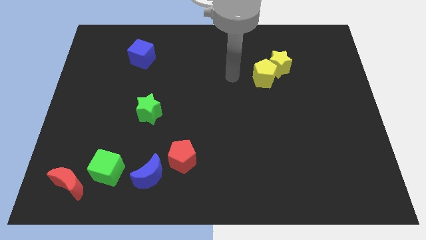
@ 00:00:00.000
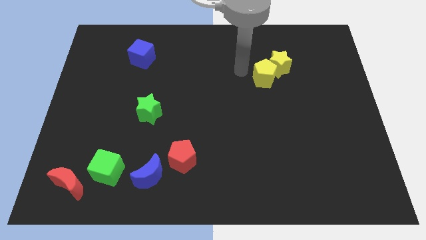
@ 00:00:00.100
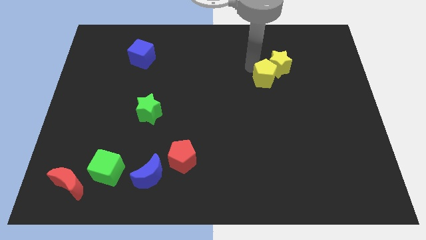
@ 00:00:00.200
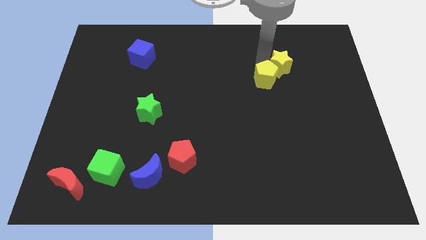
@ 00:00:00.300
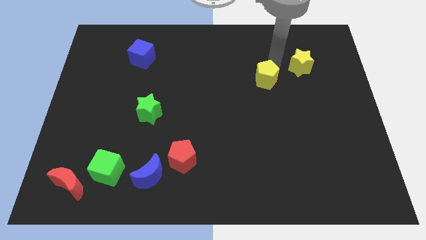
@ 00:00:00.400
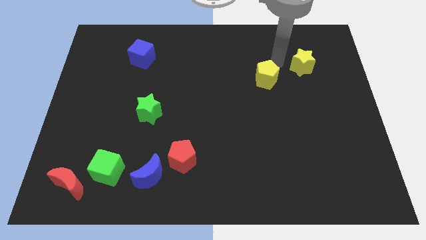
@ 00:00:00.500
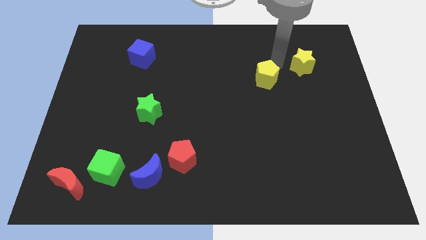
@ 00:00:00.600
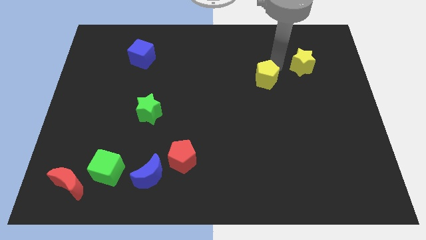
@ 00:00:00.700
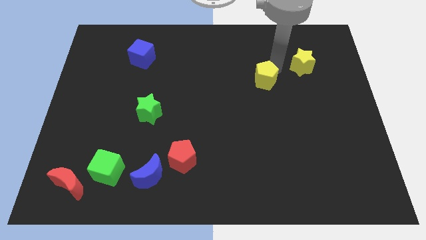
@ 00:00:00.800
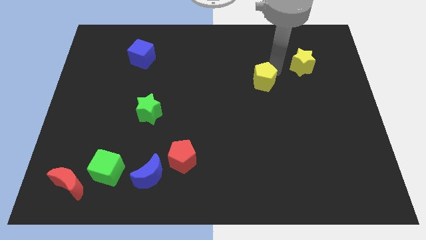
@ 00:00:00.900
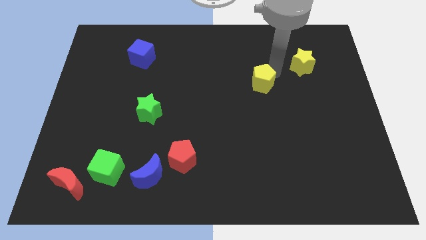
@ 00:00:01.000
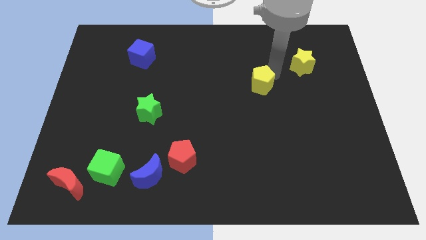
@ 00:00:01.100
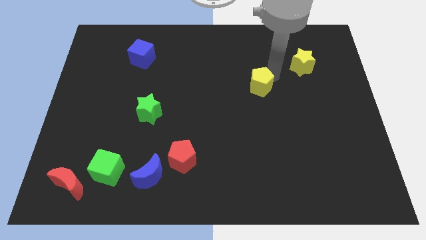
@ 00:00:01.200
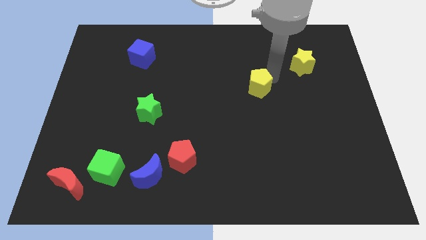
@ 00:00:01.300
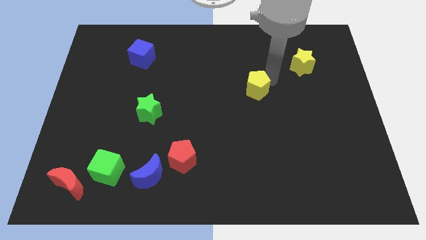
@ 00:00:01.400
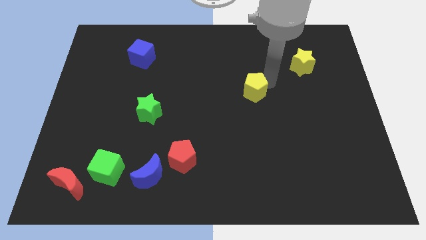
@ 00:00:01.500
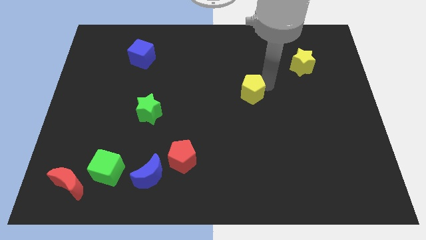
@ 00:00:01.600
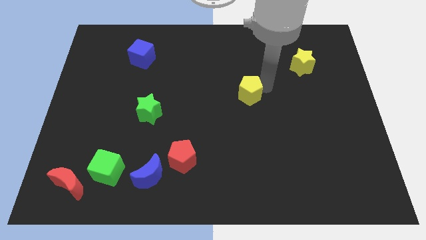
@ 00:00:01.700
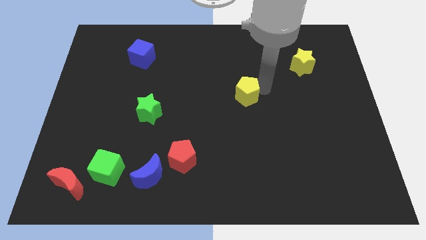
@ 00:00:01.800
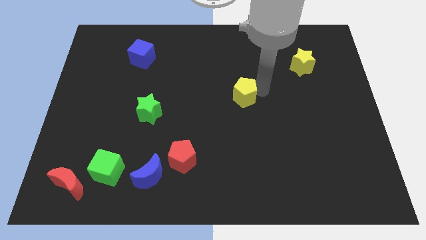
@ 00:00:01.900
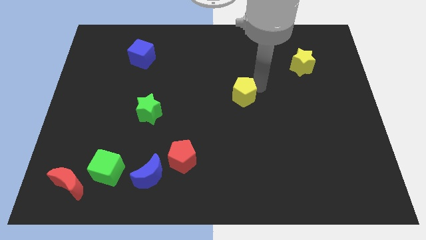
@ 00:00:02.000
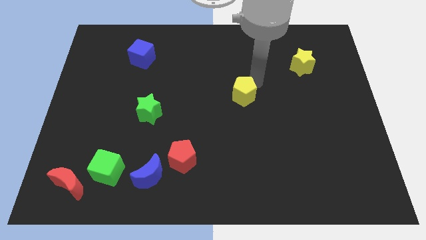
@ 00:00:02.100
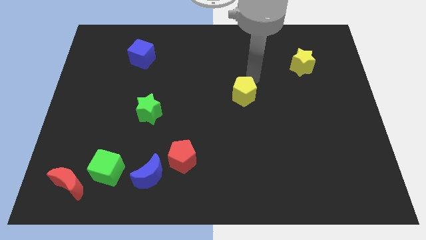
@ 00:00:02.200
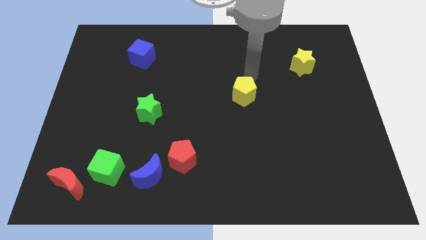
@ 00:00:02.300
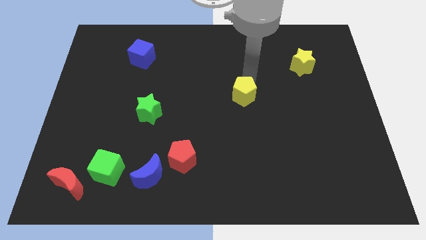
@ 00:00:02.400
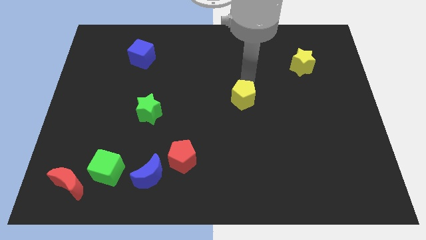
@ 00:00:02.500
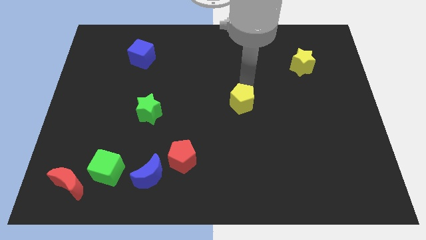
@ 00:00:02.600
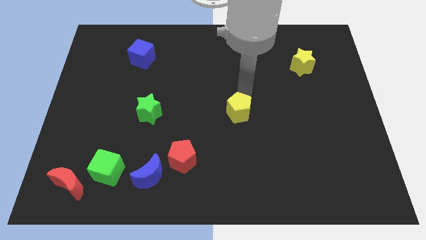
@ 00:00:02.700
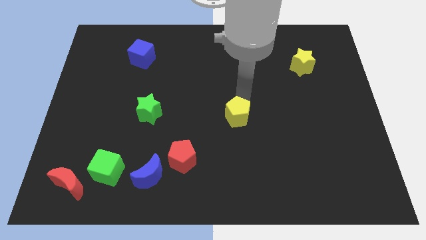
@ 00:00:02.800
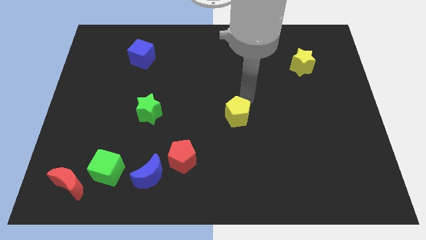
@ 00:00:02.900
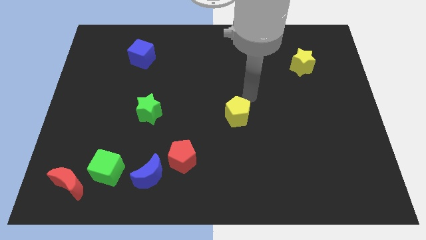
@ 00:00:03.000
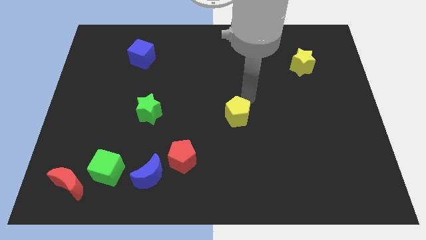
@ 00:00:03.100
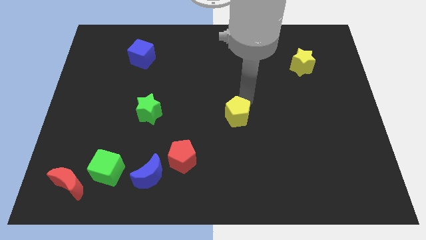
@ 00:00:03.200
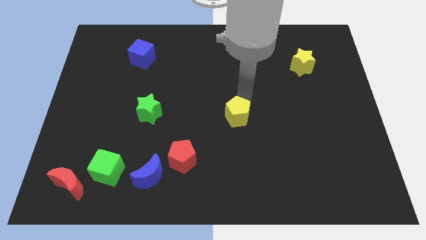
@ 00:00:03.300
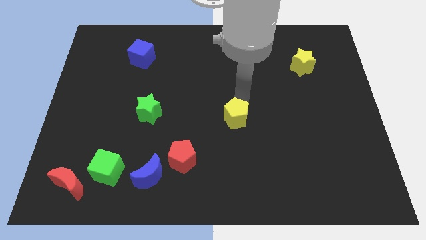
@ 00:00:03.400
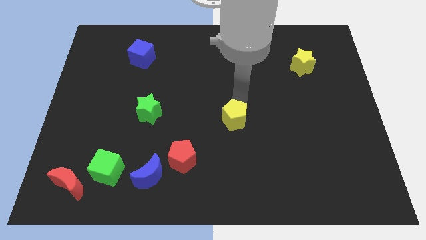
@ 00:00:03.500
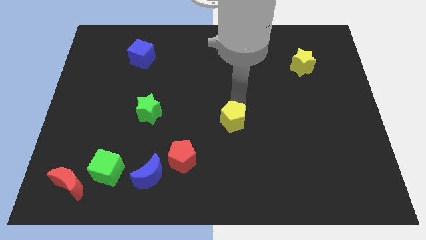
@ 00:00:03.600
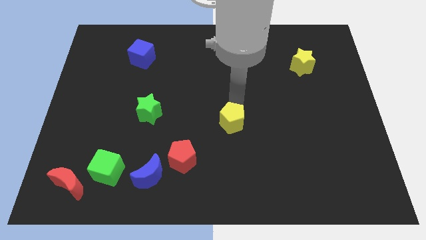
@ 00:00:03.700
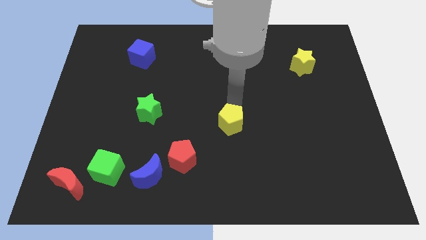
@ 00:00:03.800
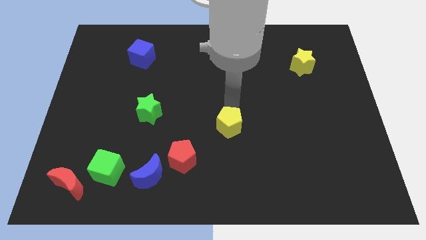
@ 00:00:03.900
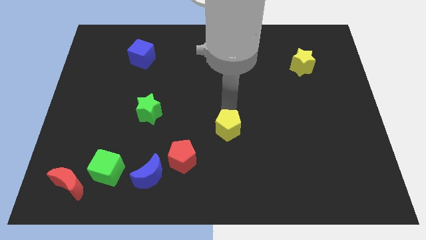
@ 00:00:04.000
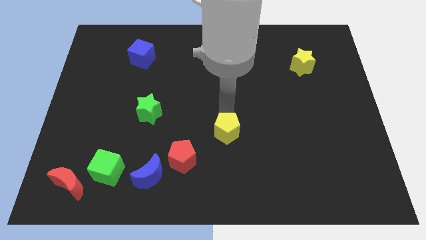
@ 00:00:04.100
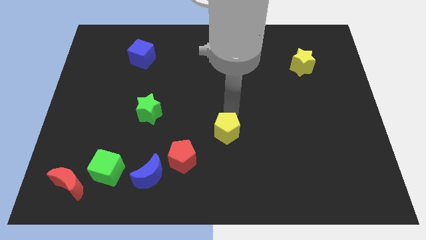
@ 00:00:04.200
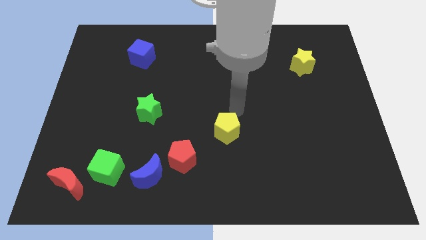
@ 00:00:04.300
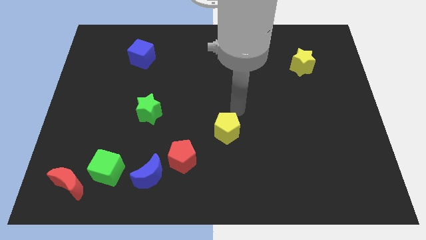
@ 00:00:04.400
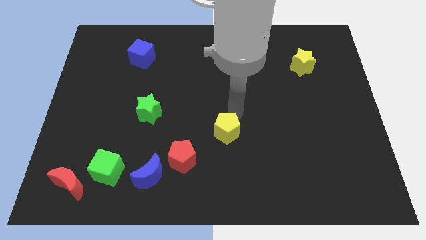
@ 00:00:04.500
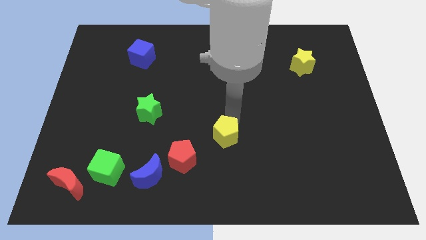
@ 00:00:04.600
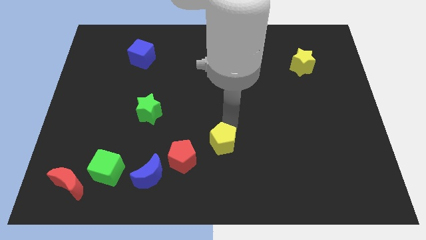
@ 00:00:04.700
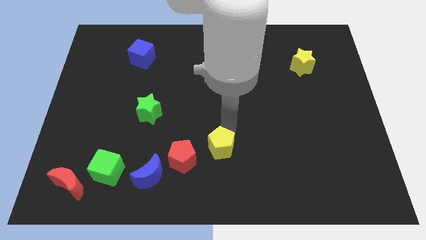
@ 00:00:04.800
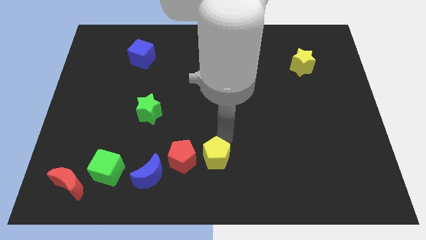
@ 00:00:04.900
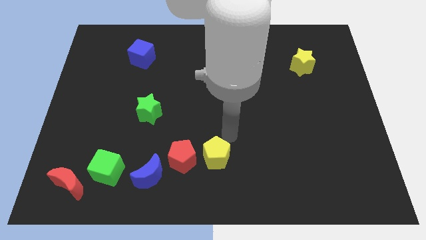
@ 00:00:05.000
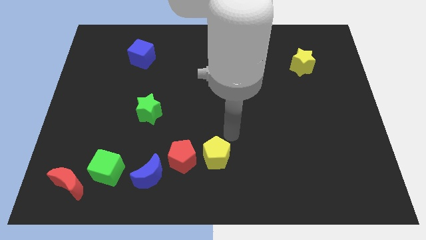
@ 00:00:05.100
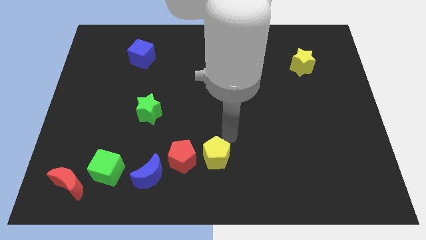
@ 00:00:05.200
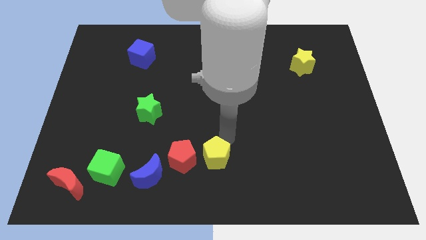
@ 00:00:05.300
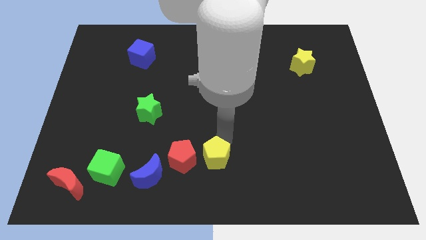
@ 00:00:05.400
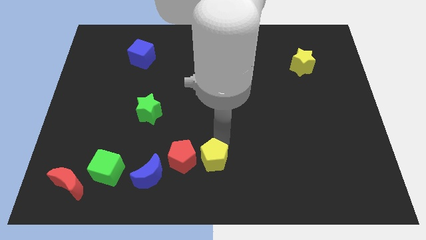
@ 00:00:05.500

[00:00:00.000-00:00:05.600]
slide the yellow pentagon to the right of the blue moon
